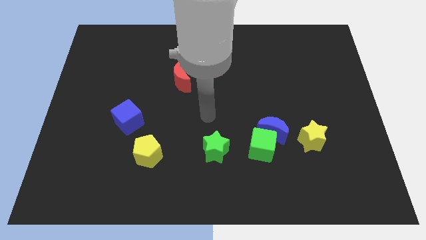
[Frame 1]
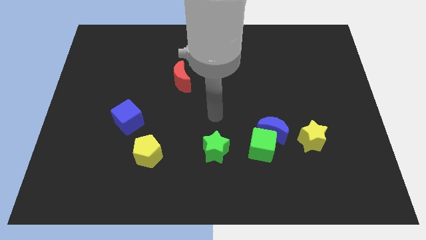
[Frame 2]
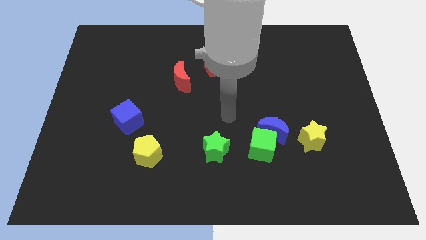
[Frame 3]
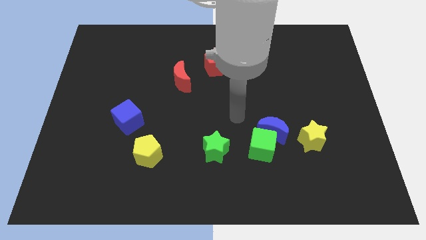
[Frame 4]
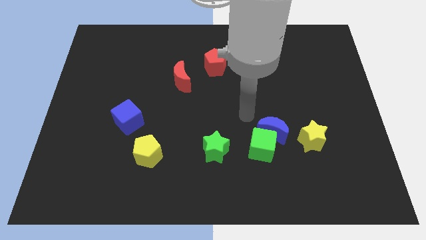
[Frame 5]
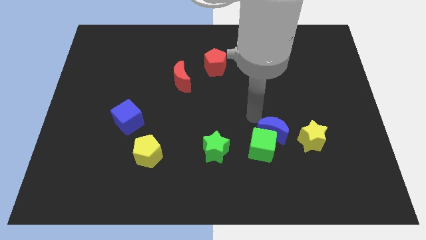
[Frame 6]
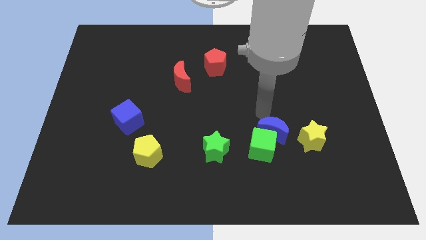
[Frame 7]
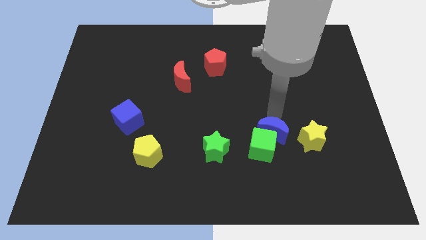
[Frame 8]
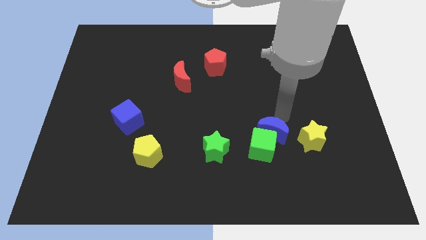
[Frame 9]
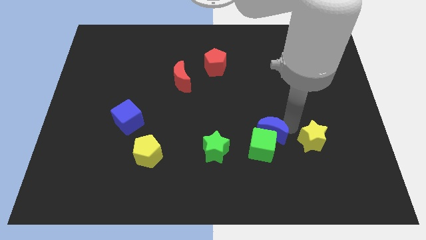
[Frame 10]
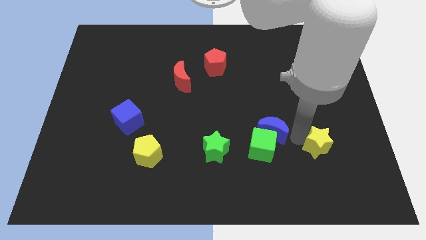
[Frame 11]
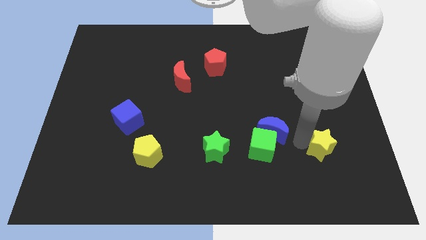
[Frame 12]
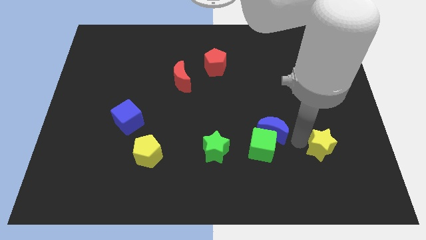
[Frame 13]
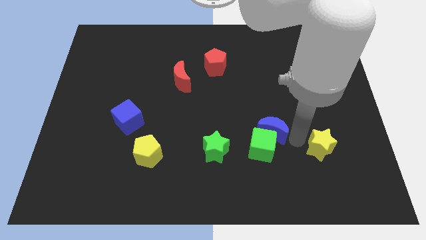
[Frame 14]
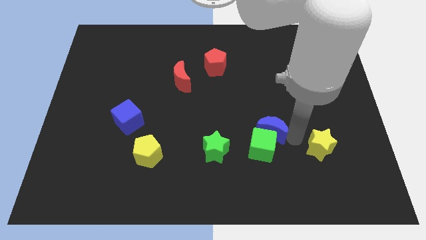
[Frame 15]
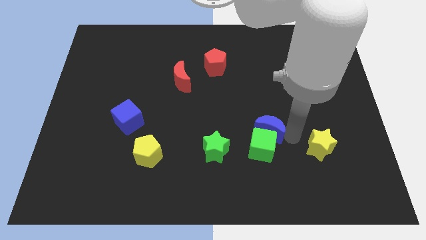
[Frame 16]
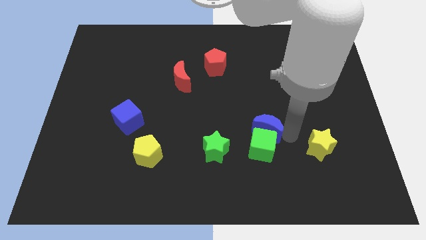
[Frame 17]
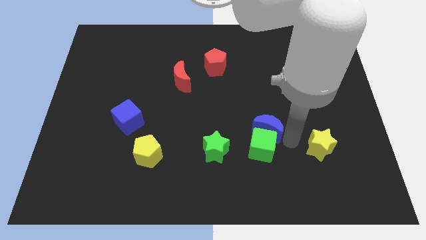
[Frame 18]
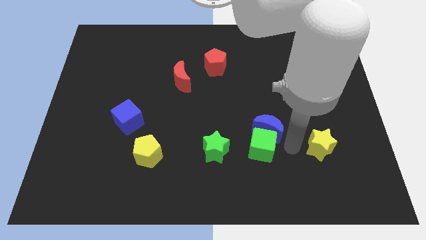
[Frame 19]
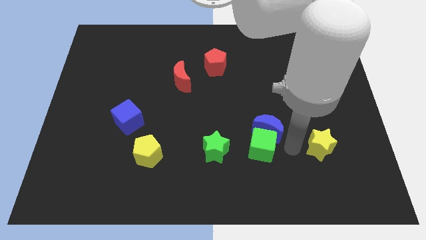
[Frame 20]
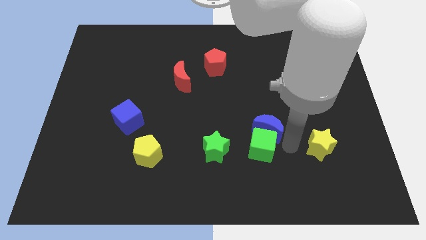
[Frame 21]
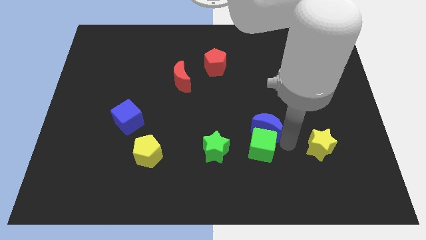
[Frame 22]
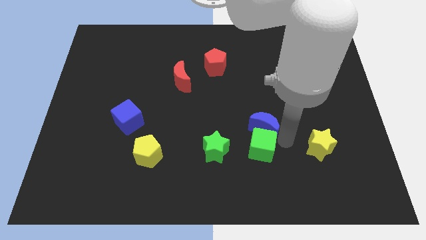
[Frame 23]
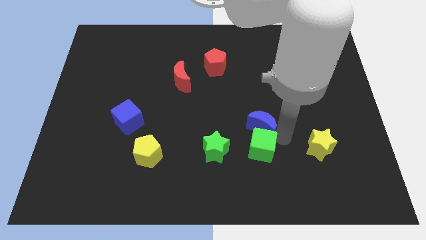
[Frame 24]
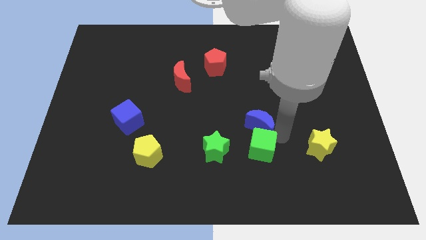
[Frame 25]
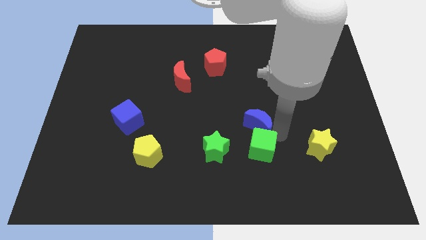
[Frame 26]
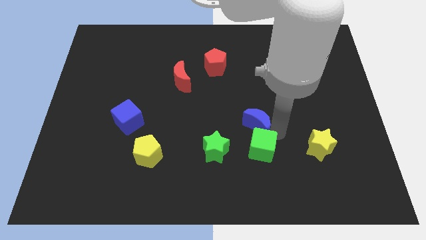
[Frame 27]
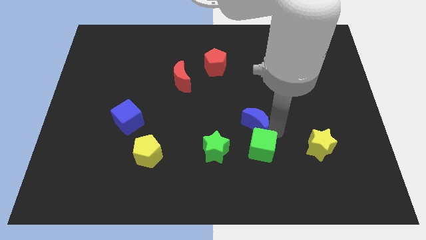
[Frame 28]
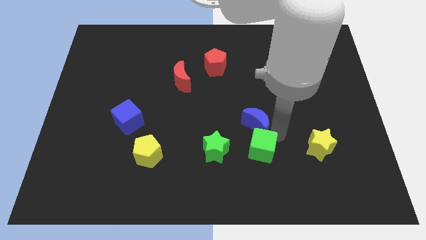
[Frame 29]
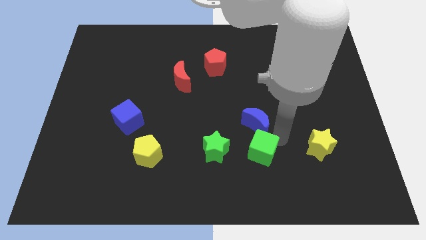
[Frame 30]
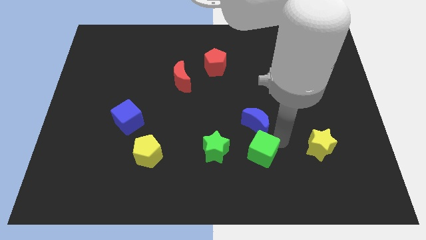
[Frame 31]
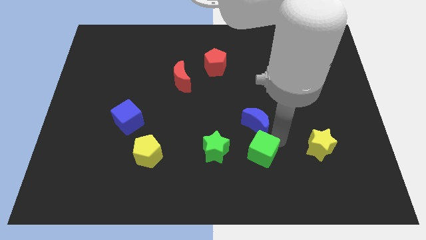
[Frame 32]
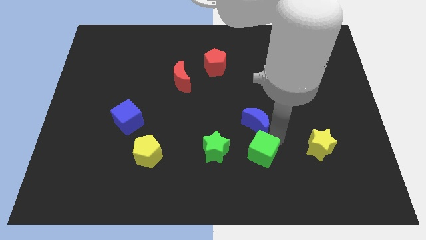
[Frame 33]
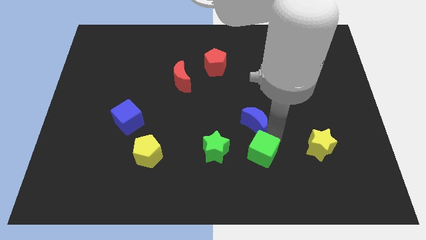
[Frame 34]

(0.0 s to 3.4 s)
move the blue moon away from the green cube and yellow star

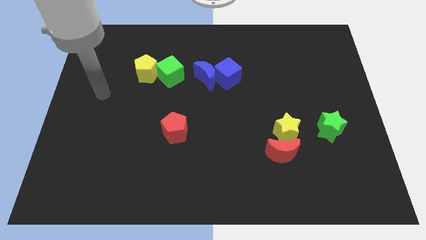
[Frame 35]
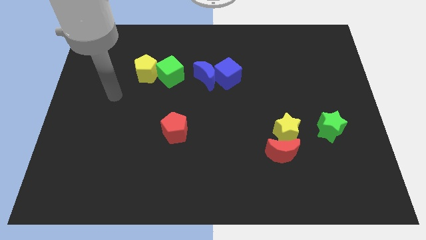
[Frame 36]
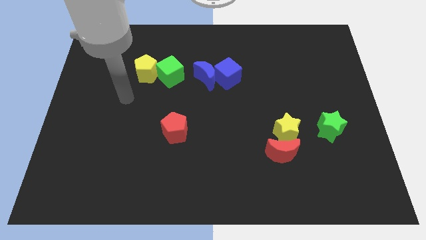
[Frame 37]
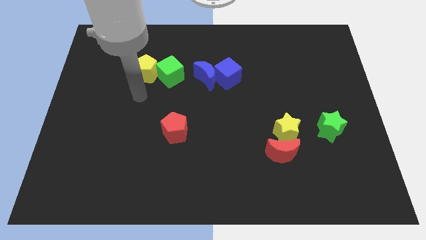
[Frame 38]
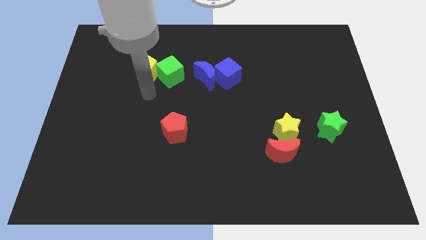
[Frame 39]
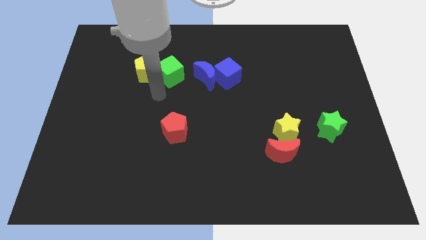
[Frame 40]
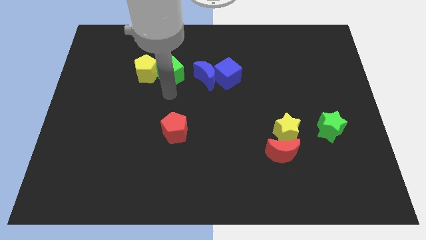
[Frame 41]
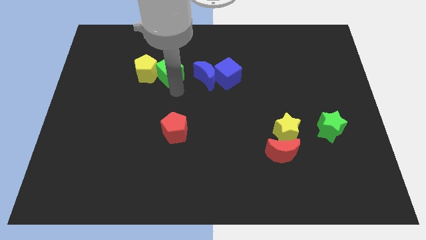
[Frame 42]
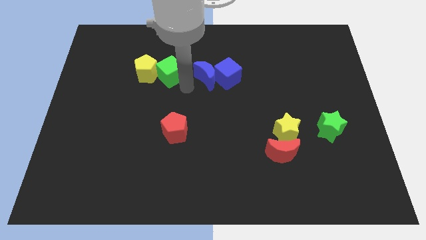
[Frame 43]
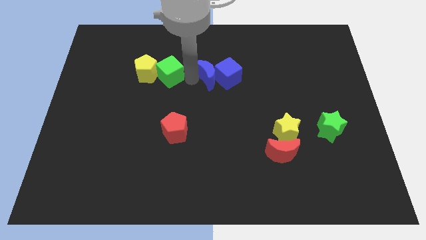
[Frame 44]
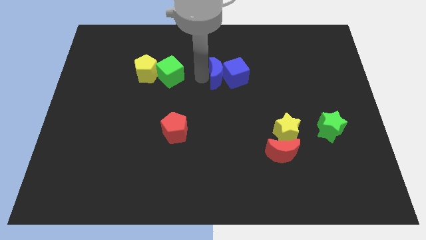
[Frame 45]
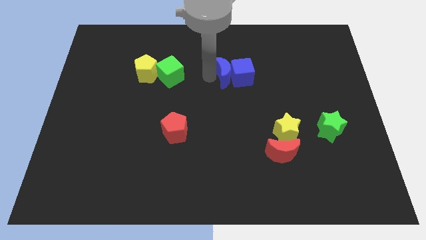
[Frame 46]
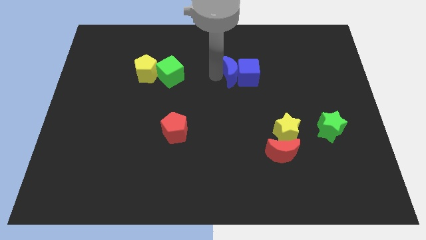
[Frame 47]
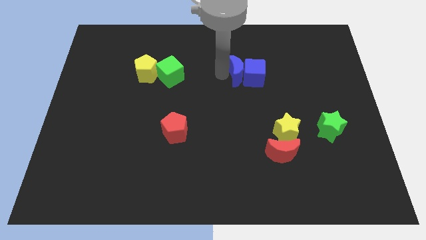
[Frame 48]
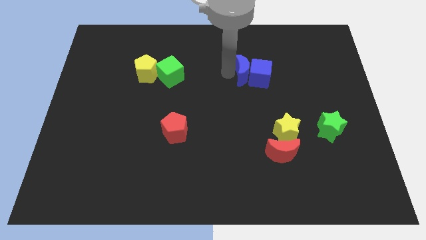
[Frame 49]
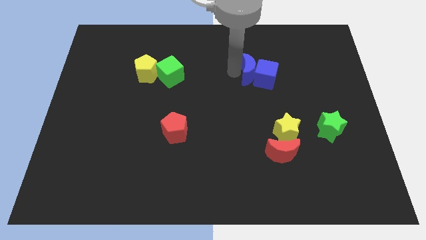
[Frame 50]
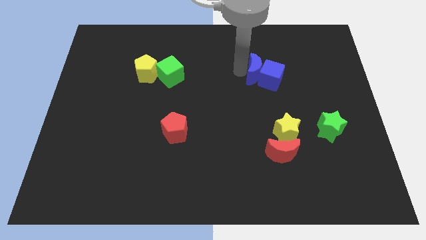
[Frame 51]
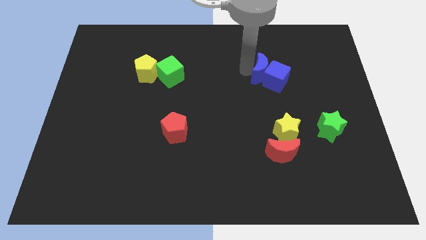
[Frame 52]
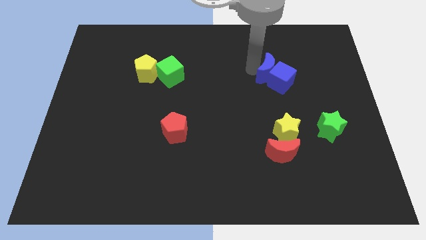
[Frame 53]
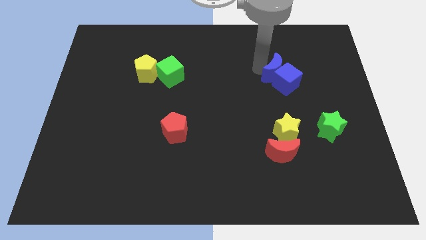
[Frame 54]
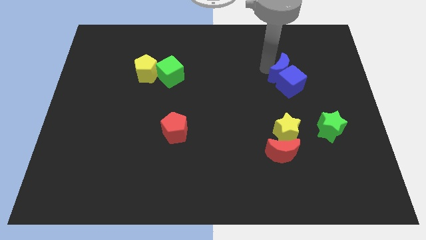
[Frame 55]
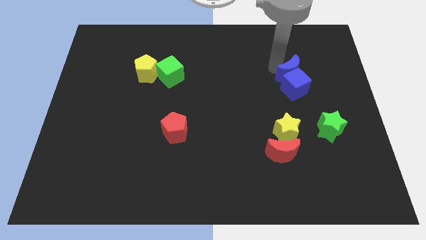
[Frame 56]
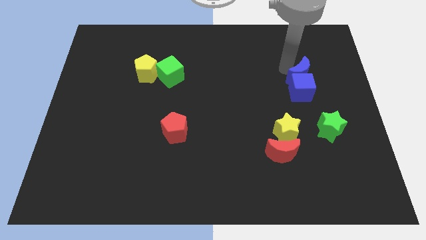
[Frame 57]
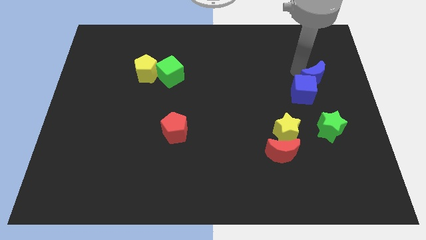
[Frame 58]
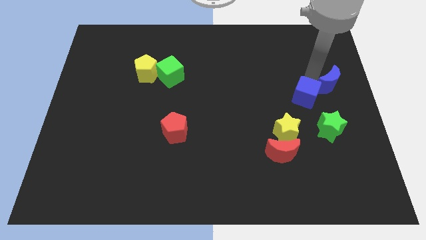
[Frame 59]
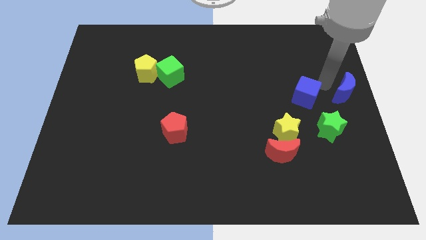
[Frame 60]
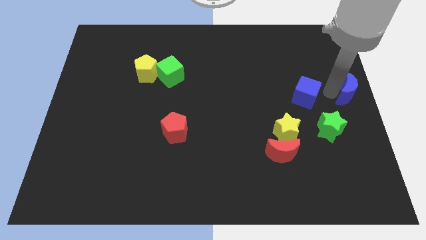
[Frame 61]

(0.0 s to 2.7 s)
move the blue cube away from the blue moon

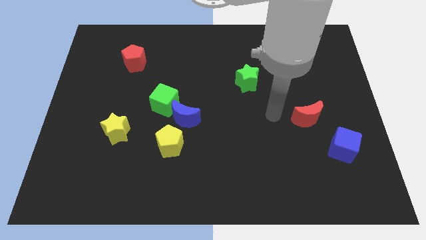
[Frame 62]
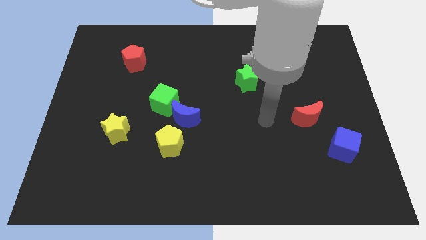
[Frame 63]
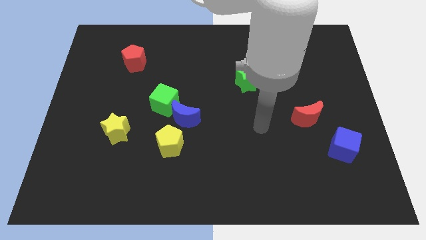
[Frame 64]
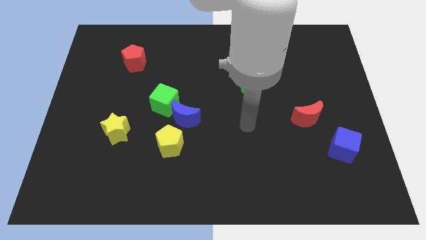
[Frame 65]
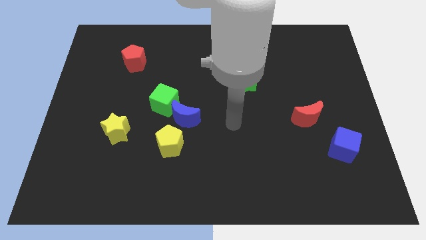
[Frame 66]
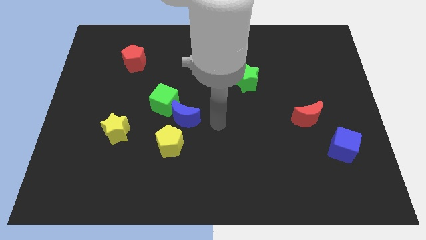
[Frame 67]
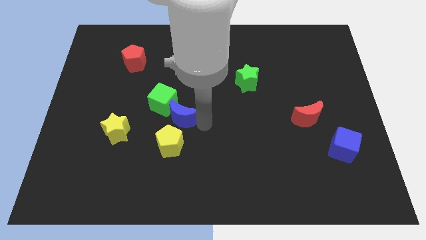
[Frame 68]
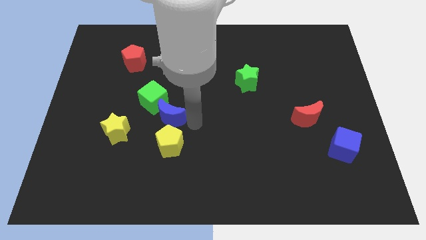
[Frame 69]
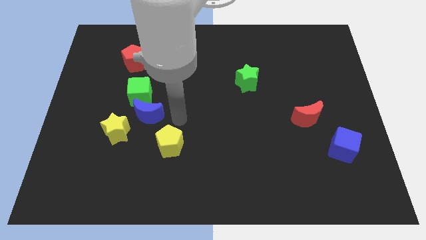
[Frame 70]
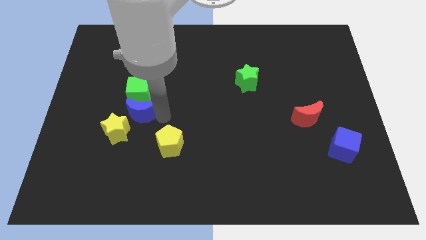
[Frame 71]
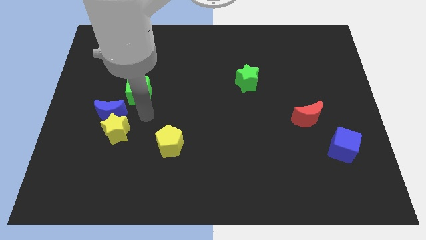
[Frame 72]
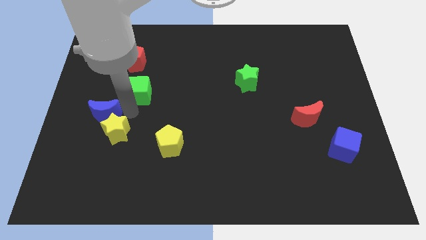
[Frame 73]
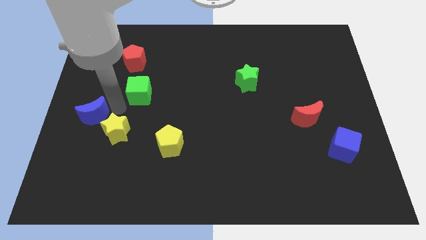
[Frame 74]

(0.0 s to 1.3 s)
separate the green cube from the blue moon

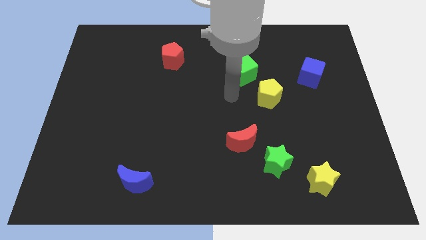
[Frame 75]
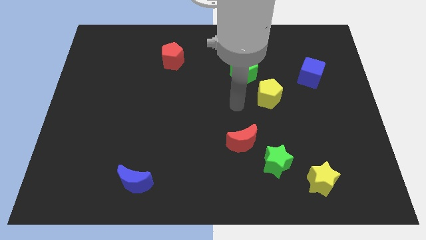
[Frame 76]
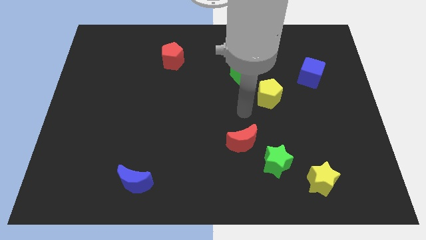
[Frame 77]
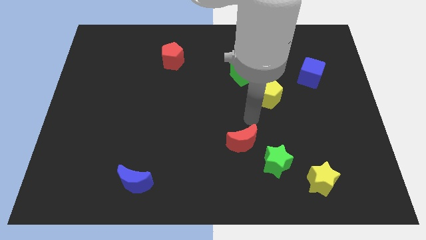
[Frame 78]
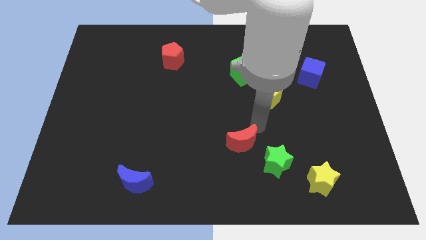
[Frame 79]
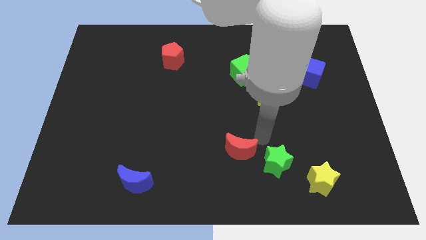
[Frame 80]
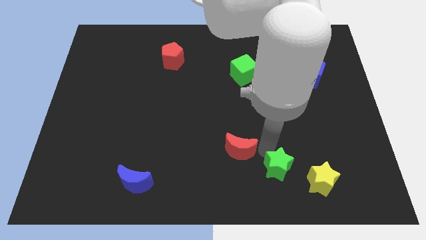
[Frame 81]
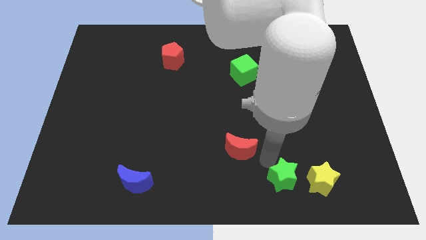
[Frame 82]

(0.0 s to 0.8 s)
pull the red moon apart from the green star

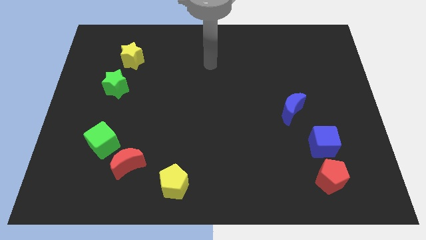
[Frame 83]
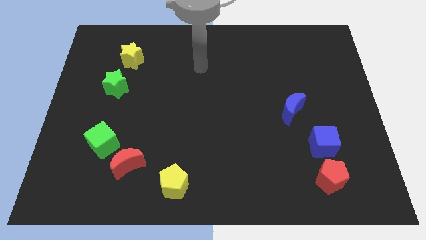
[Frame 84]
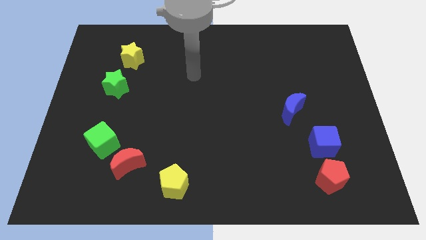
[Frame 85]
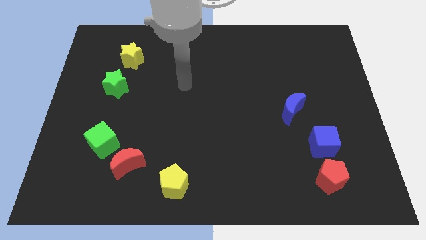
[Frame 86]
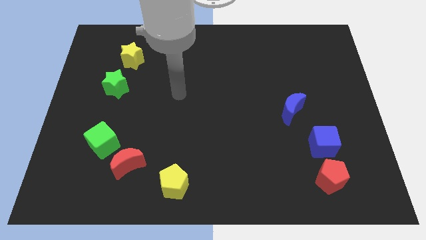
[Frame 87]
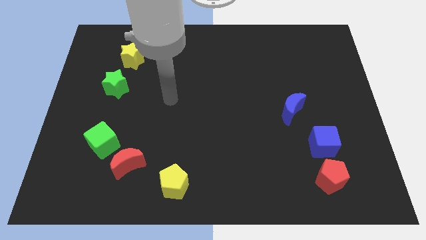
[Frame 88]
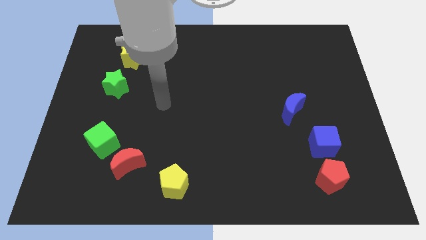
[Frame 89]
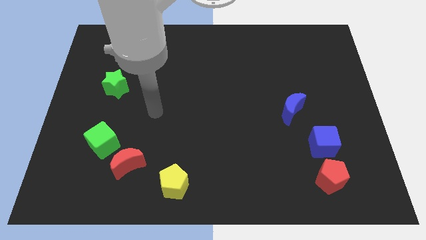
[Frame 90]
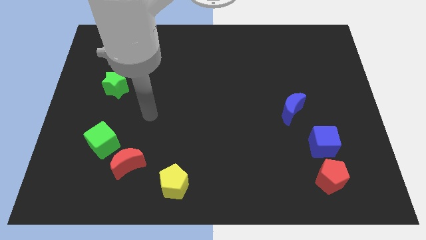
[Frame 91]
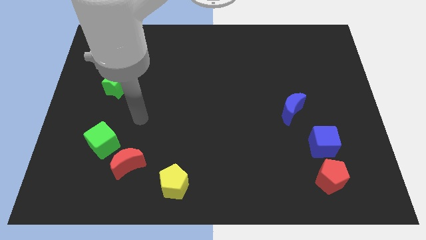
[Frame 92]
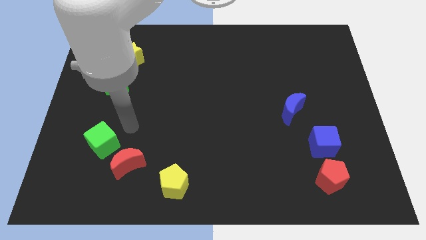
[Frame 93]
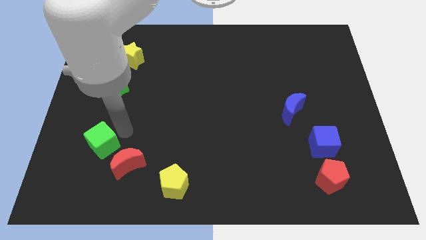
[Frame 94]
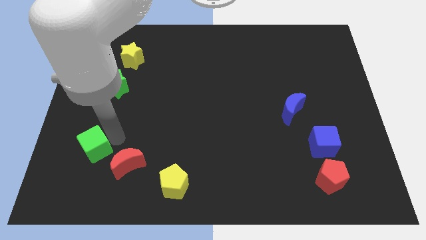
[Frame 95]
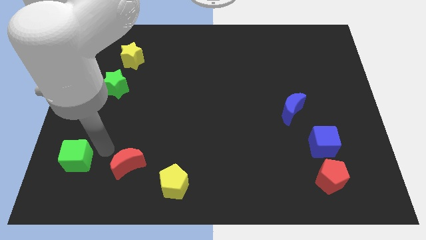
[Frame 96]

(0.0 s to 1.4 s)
move the red moon away from the green cube
